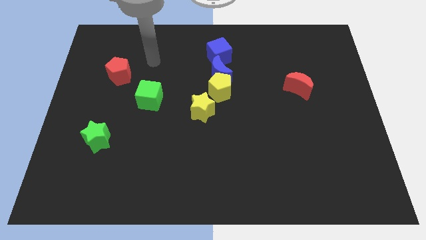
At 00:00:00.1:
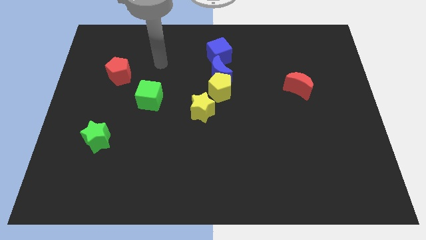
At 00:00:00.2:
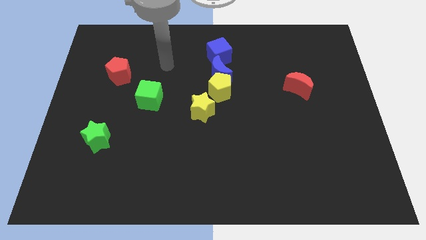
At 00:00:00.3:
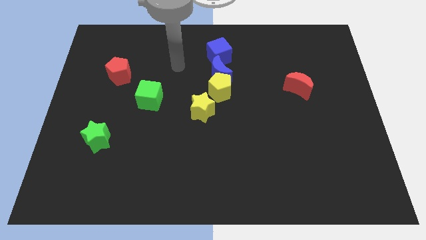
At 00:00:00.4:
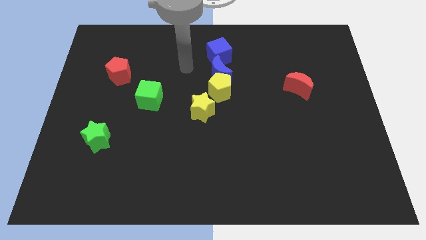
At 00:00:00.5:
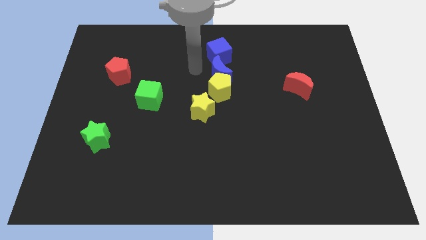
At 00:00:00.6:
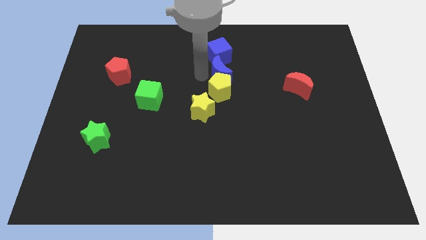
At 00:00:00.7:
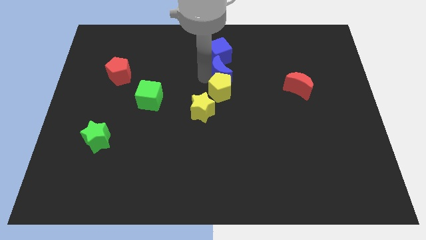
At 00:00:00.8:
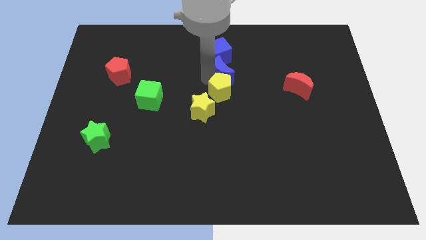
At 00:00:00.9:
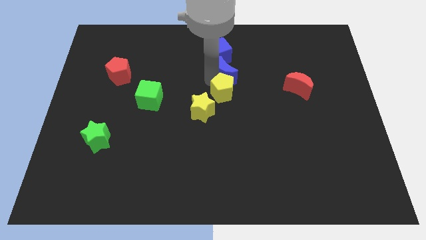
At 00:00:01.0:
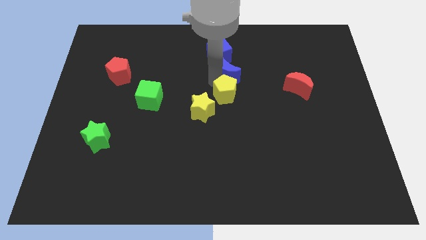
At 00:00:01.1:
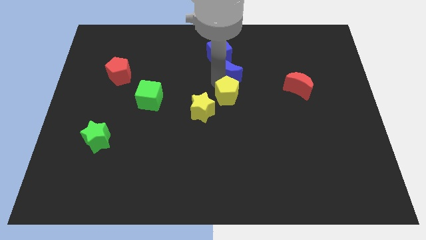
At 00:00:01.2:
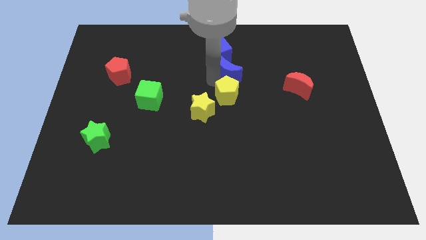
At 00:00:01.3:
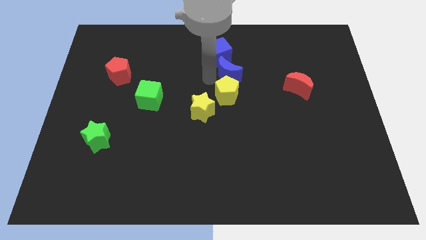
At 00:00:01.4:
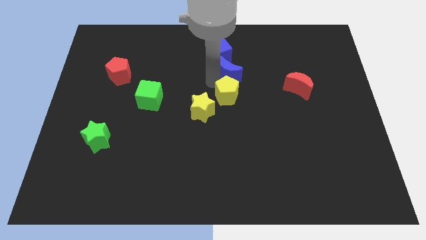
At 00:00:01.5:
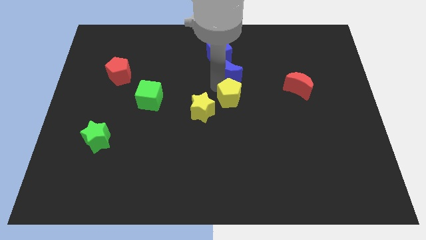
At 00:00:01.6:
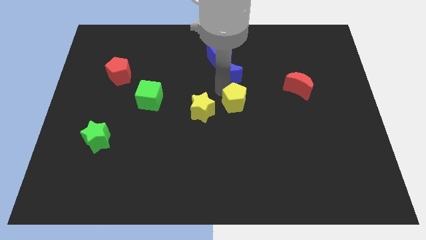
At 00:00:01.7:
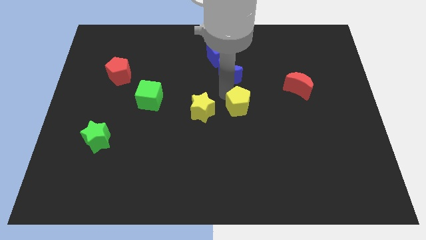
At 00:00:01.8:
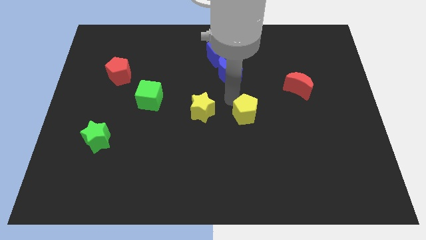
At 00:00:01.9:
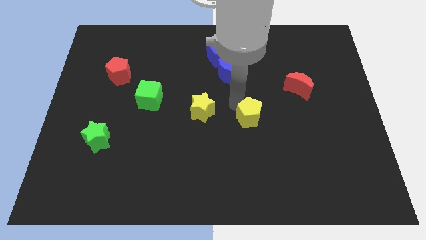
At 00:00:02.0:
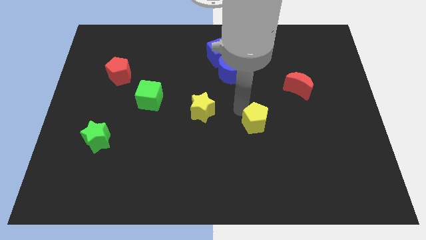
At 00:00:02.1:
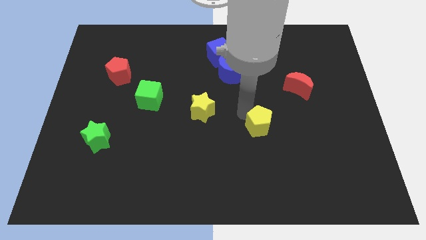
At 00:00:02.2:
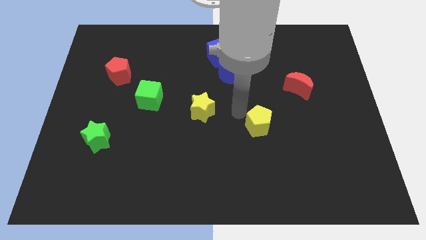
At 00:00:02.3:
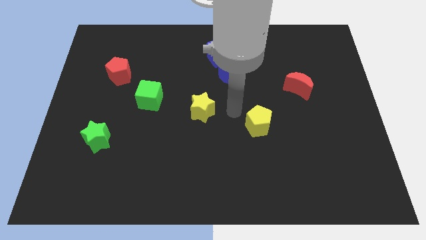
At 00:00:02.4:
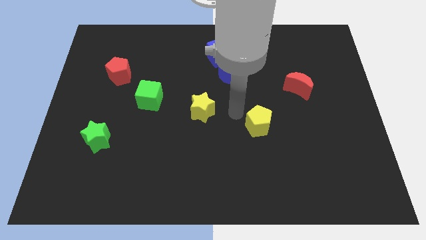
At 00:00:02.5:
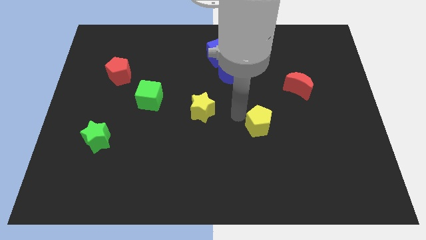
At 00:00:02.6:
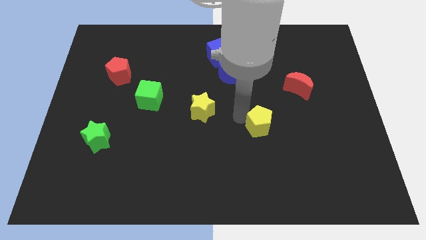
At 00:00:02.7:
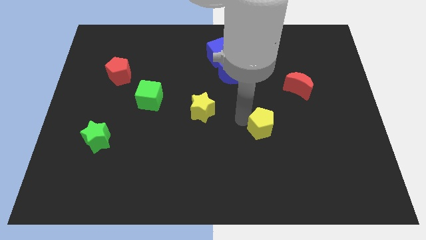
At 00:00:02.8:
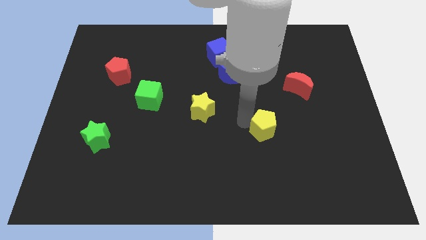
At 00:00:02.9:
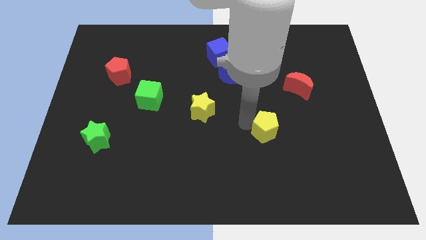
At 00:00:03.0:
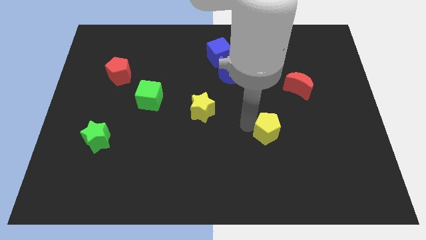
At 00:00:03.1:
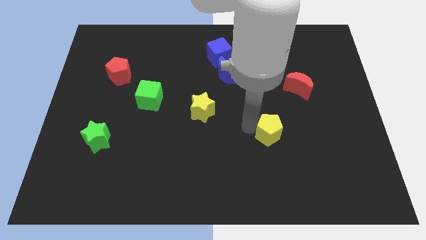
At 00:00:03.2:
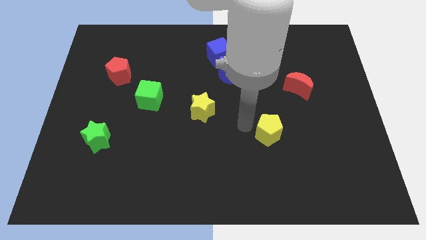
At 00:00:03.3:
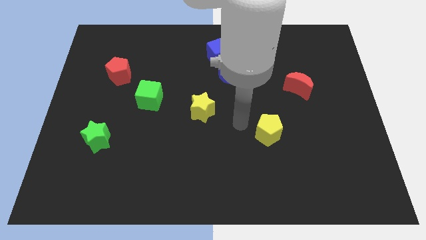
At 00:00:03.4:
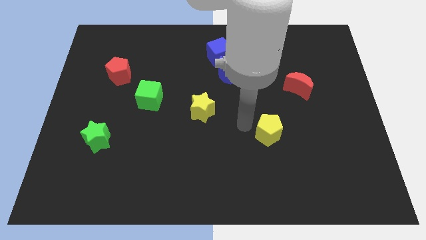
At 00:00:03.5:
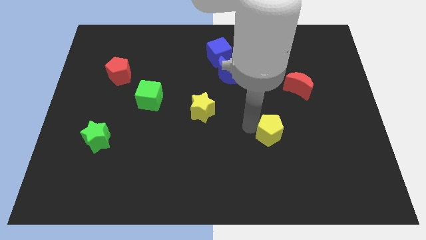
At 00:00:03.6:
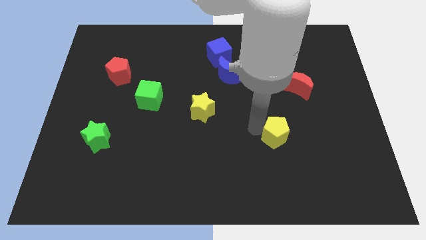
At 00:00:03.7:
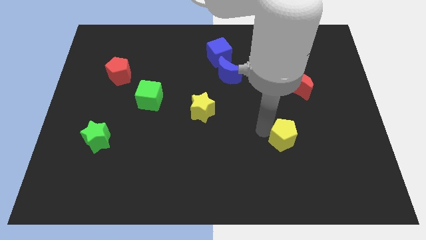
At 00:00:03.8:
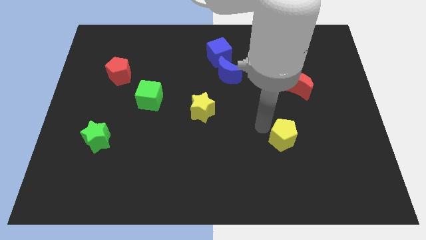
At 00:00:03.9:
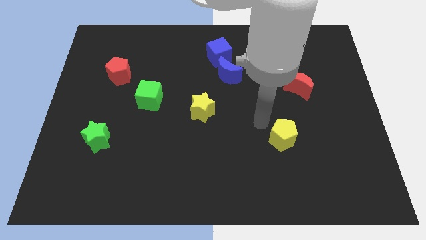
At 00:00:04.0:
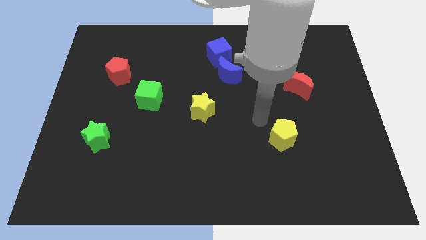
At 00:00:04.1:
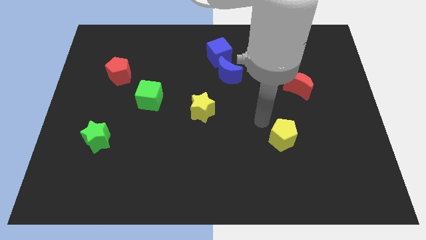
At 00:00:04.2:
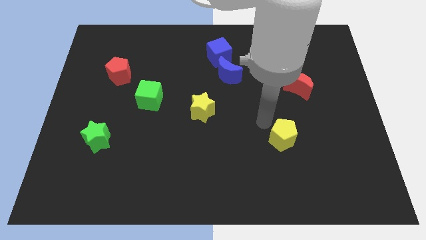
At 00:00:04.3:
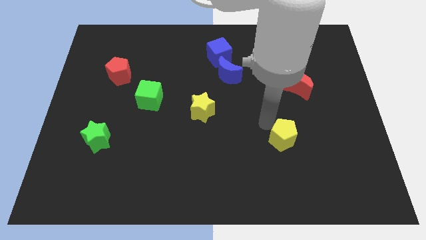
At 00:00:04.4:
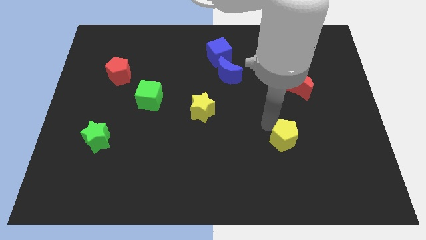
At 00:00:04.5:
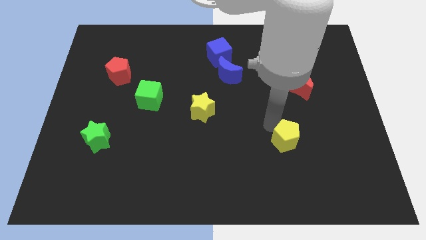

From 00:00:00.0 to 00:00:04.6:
slide the yellow pentagon down and then right

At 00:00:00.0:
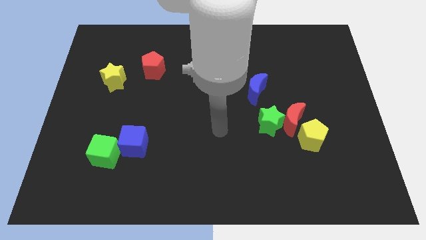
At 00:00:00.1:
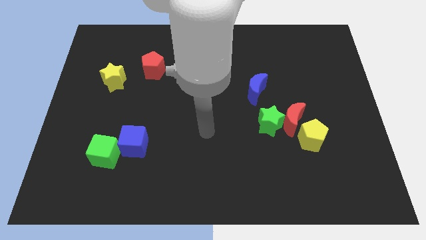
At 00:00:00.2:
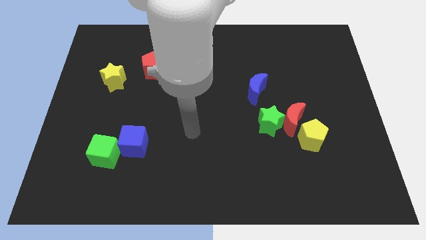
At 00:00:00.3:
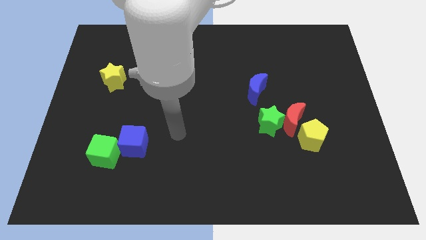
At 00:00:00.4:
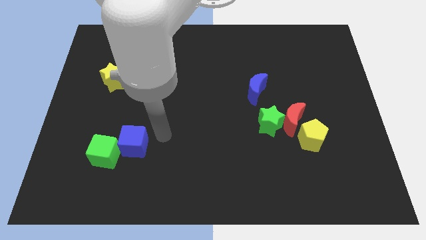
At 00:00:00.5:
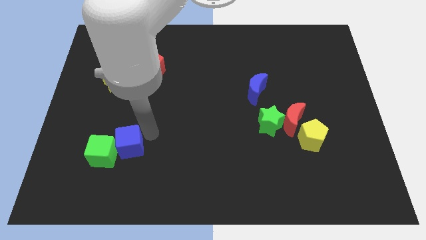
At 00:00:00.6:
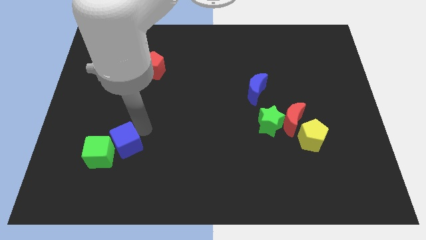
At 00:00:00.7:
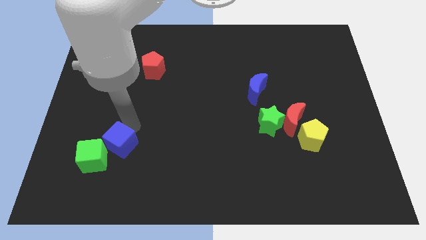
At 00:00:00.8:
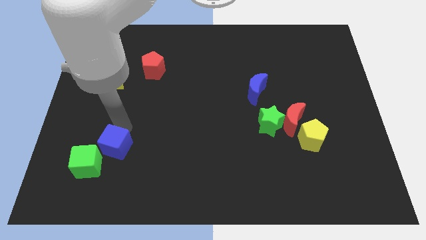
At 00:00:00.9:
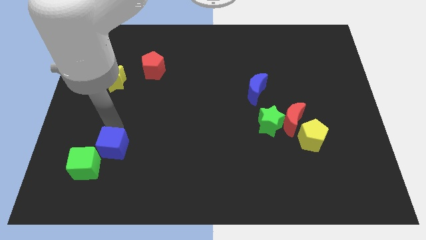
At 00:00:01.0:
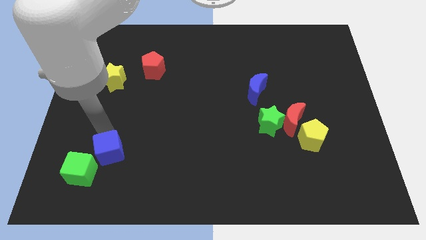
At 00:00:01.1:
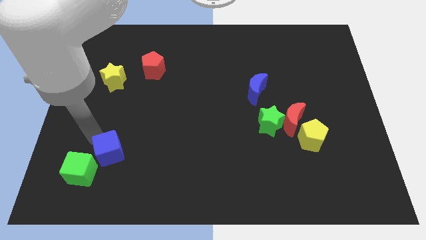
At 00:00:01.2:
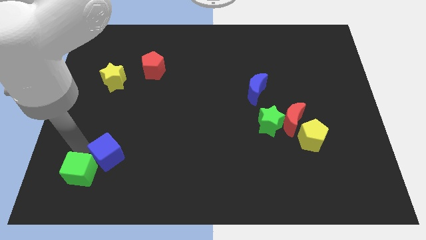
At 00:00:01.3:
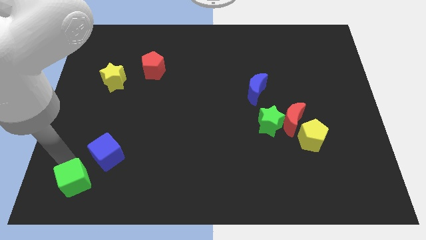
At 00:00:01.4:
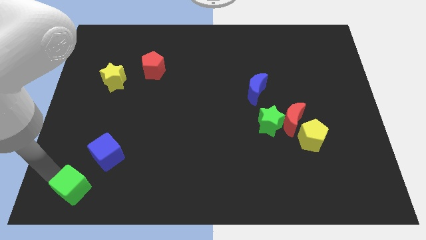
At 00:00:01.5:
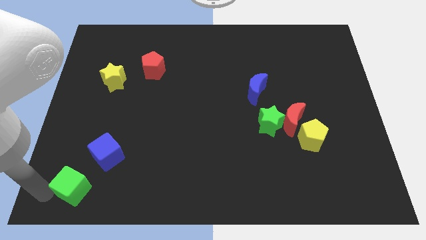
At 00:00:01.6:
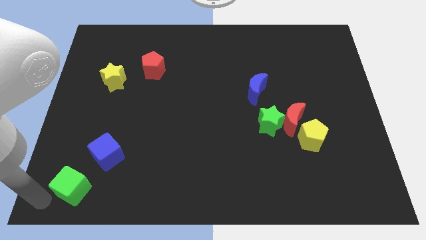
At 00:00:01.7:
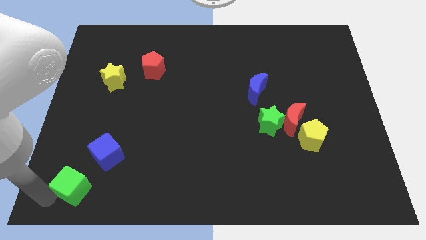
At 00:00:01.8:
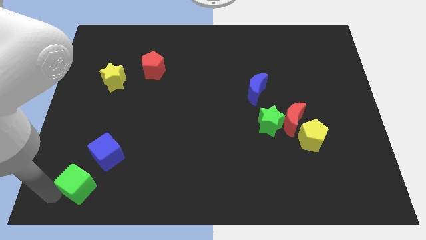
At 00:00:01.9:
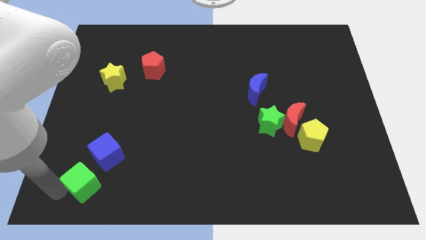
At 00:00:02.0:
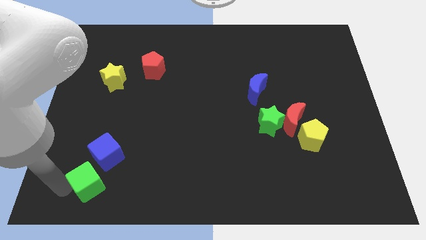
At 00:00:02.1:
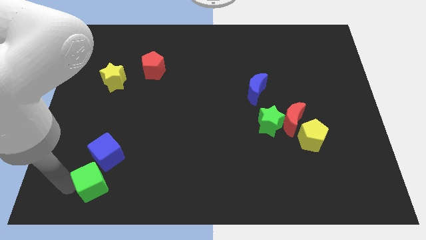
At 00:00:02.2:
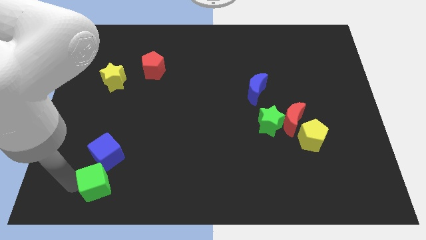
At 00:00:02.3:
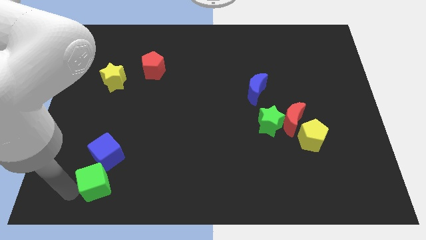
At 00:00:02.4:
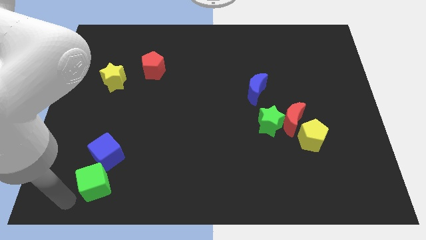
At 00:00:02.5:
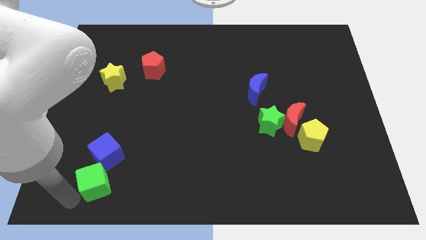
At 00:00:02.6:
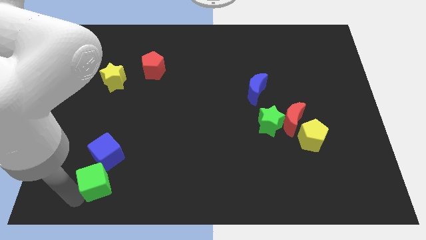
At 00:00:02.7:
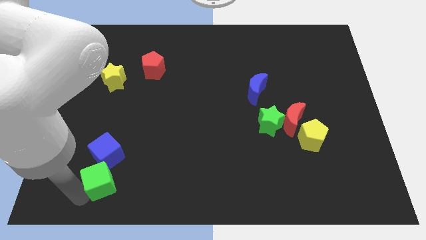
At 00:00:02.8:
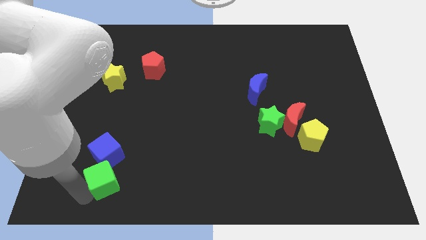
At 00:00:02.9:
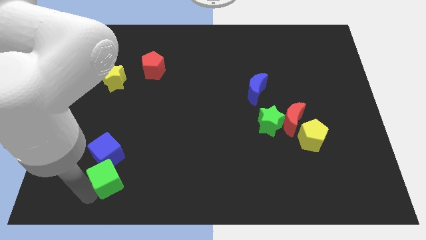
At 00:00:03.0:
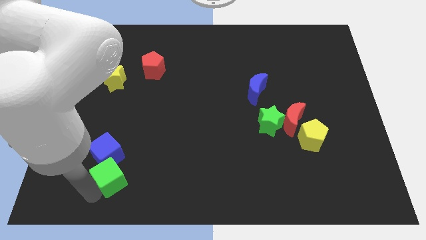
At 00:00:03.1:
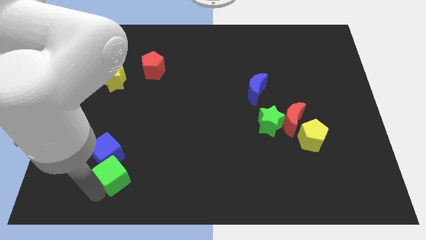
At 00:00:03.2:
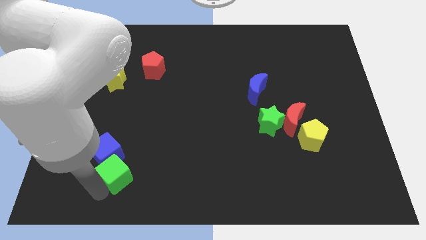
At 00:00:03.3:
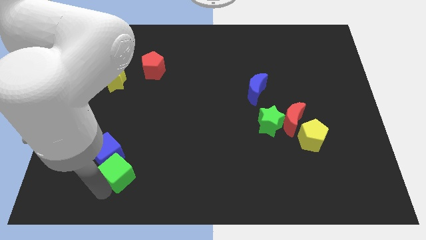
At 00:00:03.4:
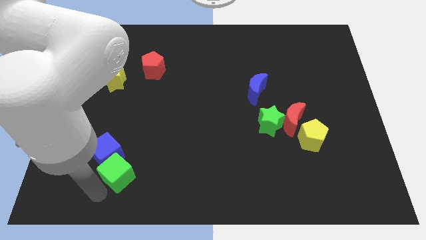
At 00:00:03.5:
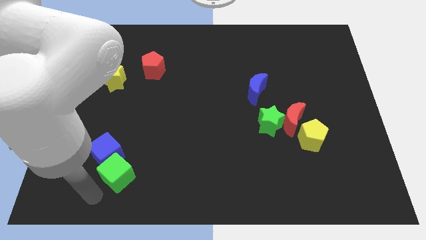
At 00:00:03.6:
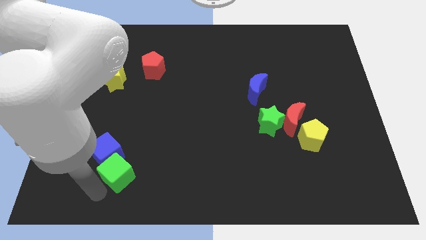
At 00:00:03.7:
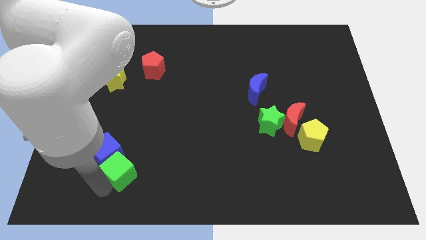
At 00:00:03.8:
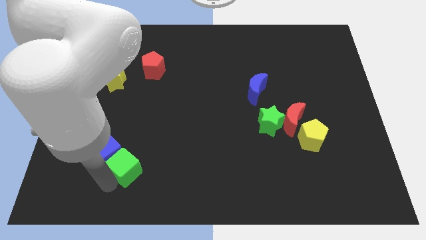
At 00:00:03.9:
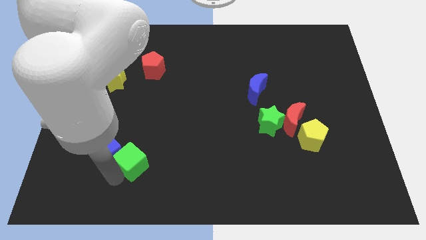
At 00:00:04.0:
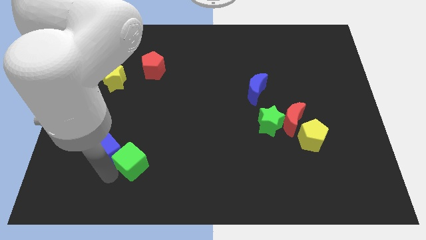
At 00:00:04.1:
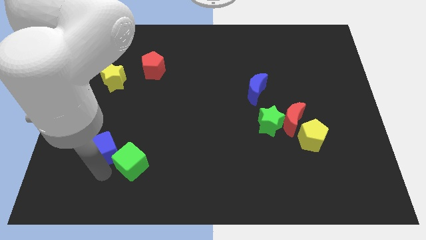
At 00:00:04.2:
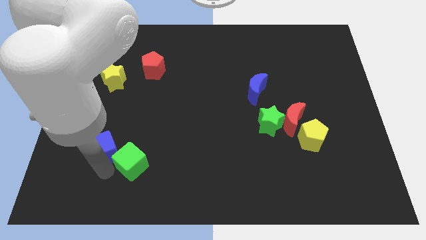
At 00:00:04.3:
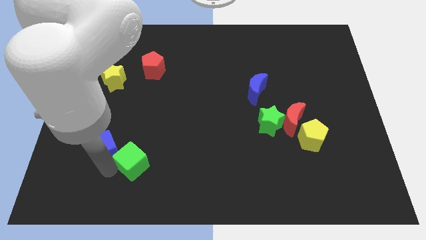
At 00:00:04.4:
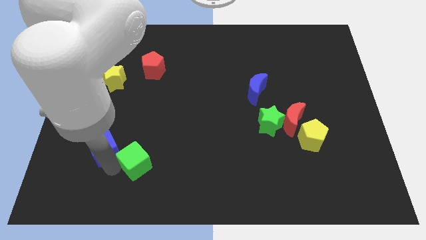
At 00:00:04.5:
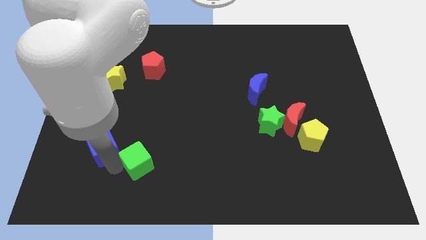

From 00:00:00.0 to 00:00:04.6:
move the green cube right a little bit
